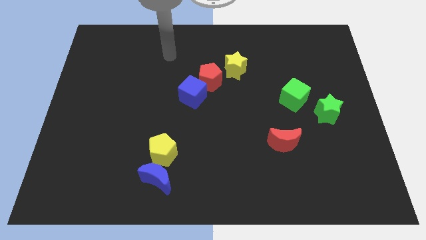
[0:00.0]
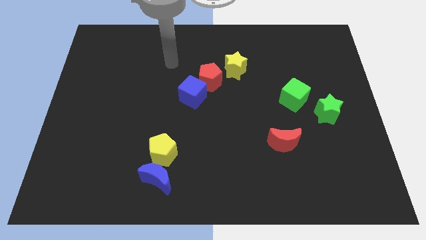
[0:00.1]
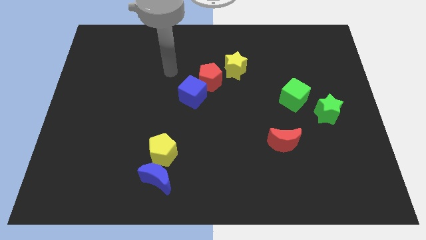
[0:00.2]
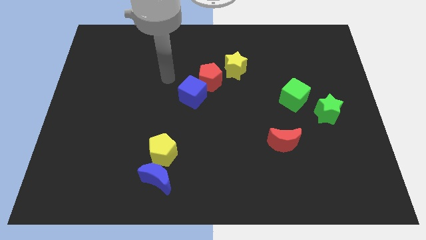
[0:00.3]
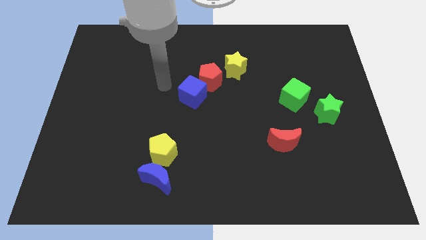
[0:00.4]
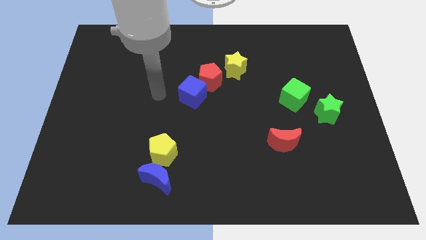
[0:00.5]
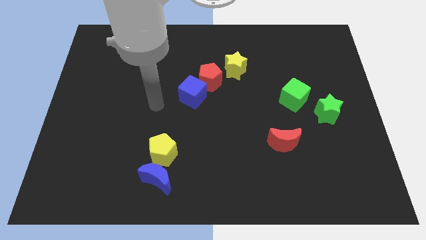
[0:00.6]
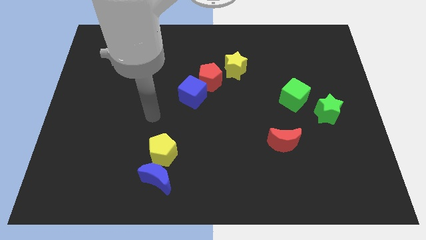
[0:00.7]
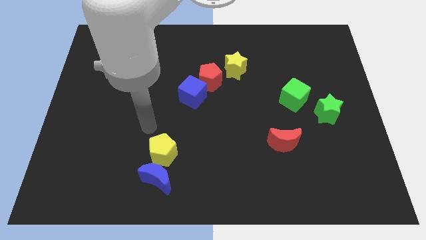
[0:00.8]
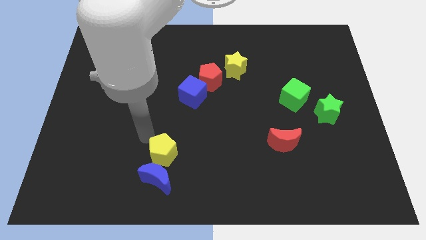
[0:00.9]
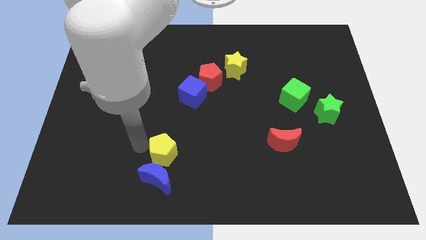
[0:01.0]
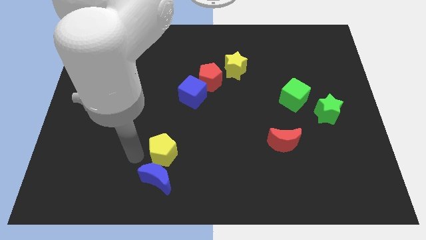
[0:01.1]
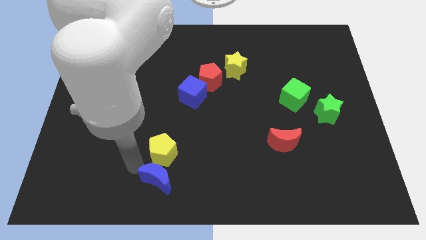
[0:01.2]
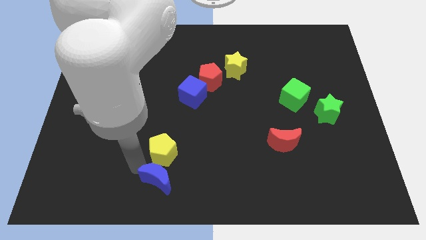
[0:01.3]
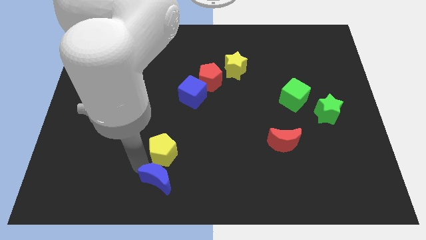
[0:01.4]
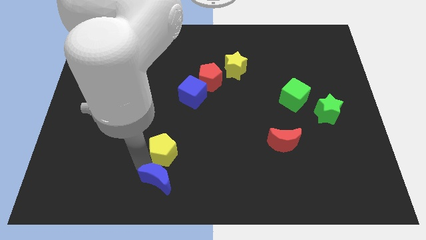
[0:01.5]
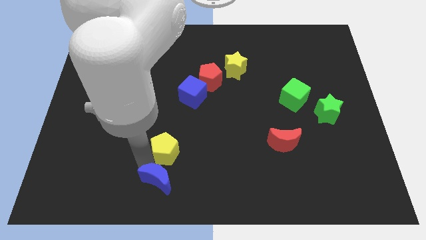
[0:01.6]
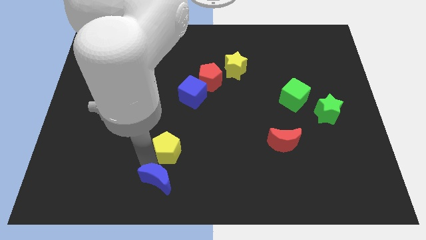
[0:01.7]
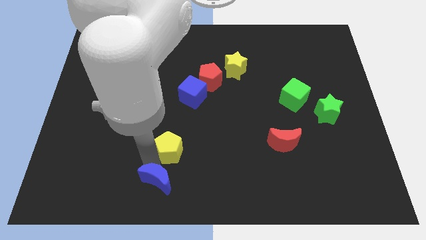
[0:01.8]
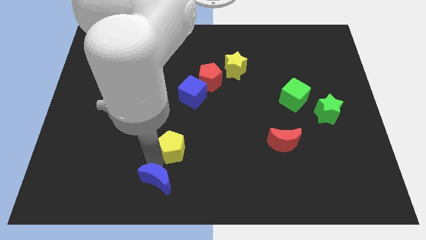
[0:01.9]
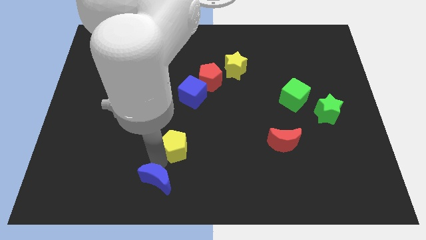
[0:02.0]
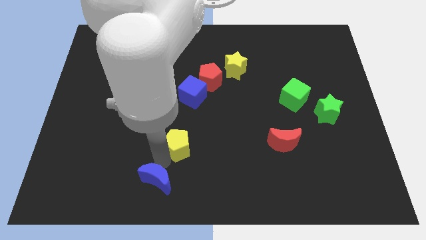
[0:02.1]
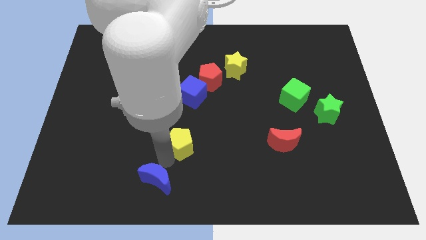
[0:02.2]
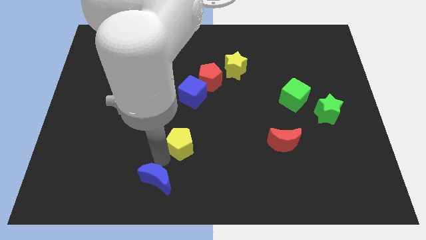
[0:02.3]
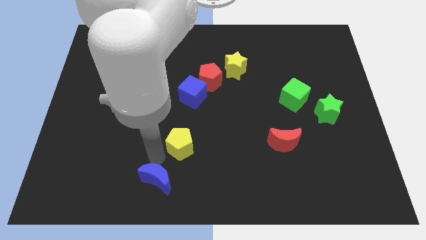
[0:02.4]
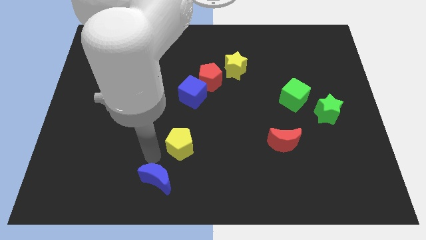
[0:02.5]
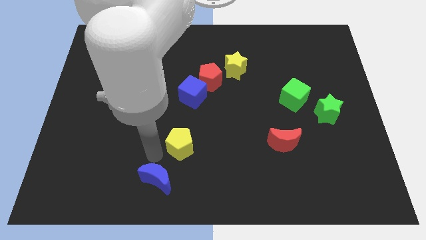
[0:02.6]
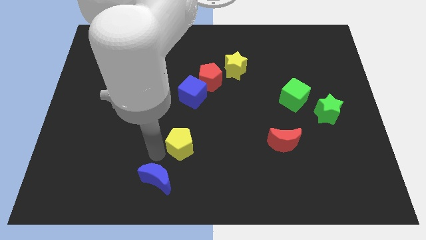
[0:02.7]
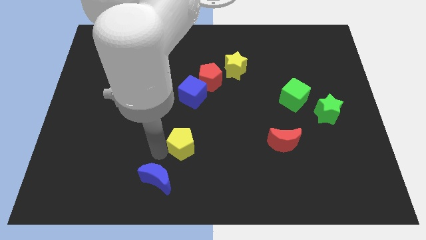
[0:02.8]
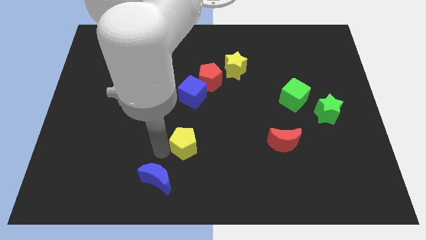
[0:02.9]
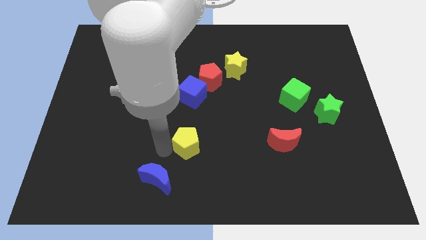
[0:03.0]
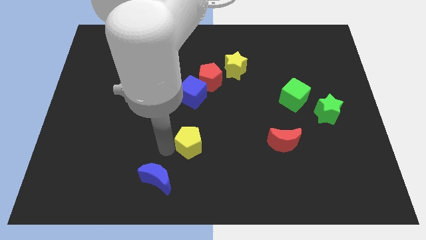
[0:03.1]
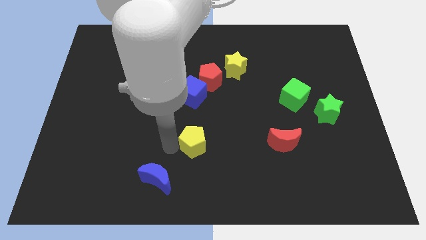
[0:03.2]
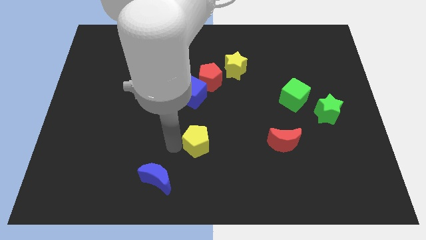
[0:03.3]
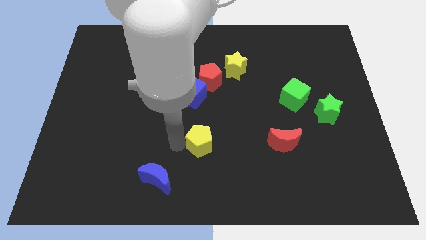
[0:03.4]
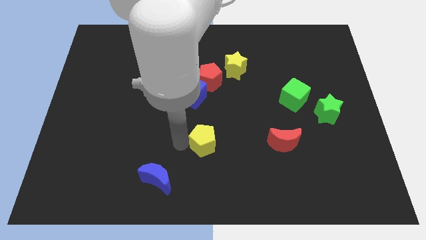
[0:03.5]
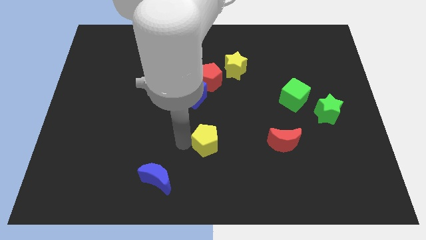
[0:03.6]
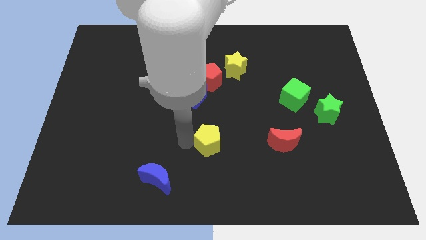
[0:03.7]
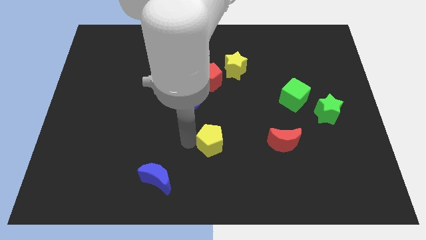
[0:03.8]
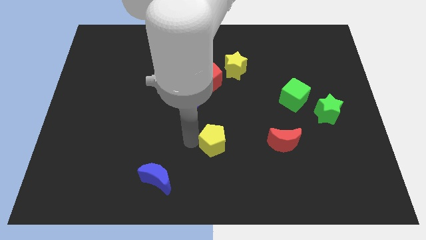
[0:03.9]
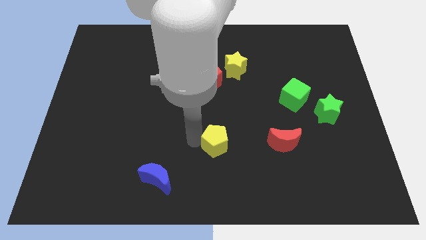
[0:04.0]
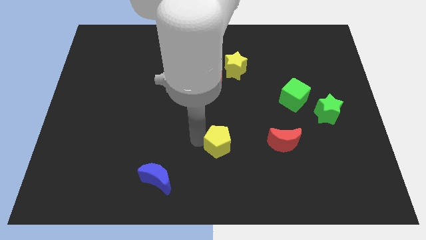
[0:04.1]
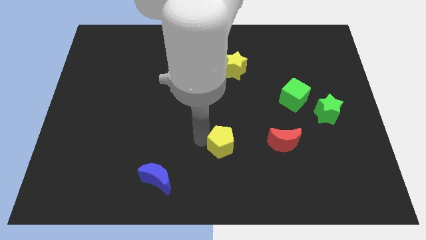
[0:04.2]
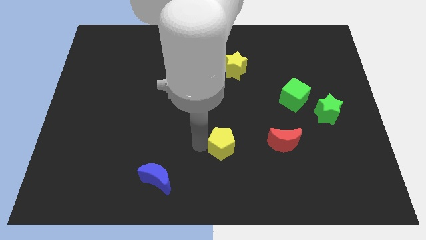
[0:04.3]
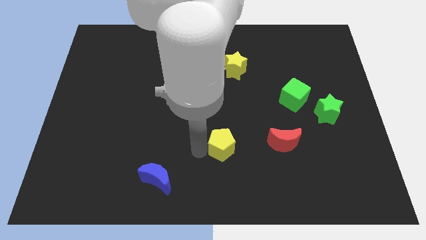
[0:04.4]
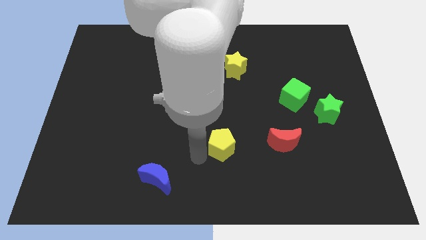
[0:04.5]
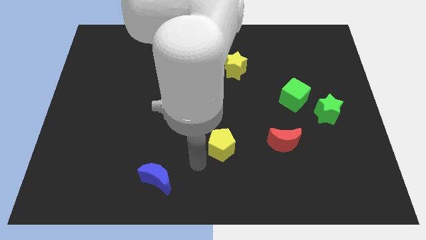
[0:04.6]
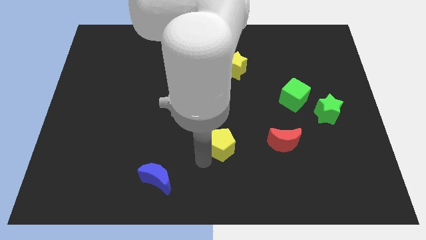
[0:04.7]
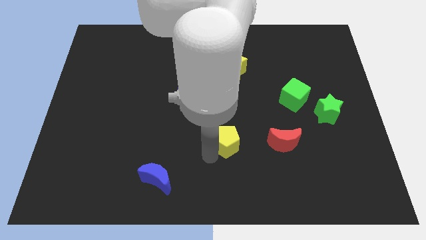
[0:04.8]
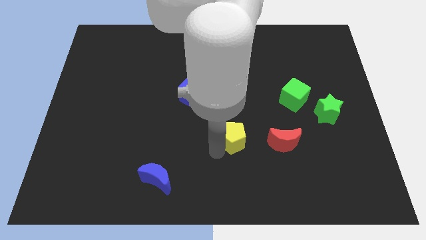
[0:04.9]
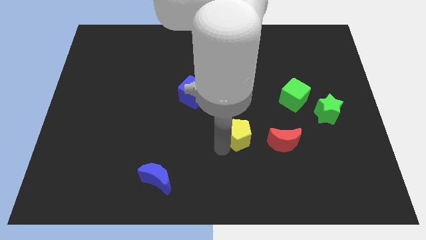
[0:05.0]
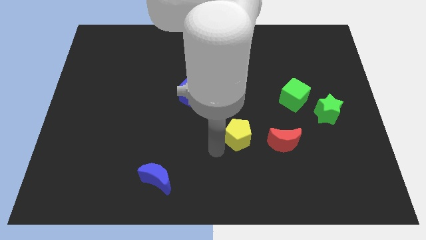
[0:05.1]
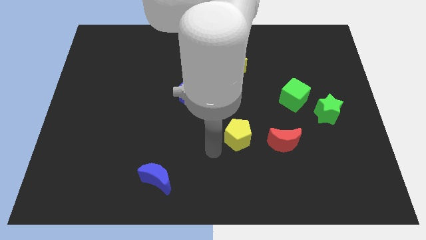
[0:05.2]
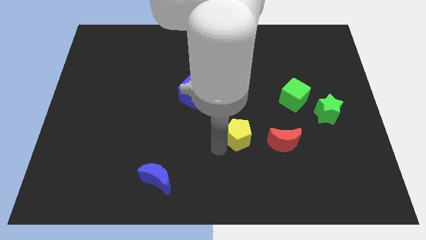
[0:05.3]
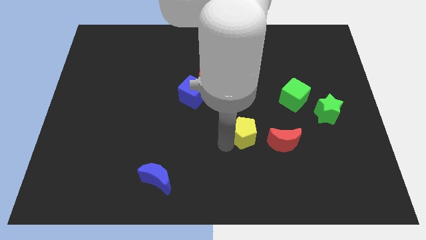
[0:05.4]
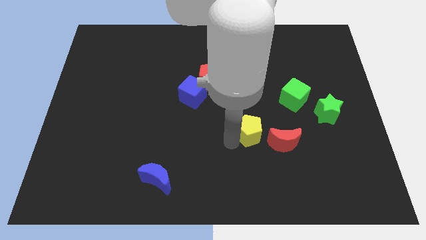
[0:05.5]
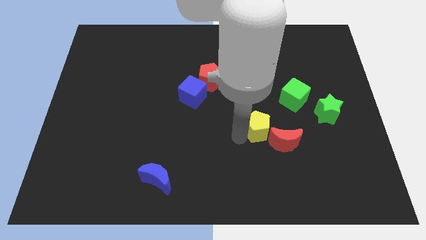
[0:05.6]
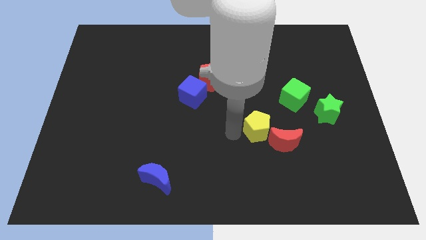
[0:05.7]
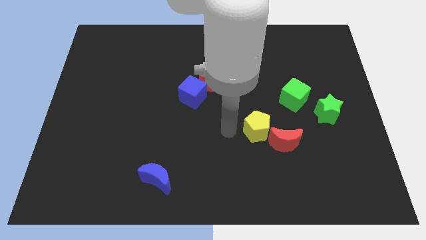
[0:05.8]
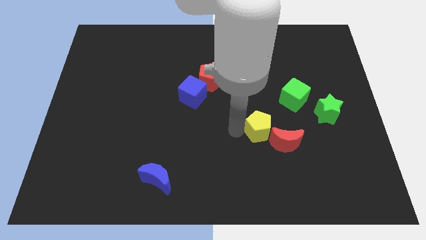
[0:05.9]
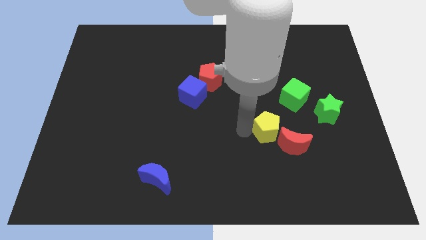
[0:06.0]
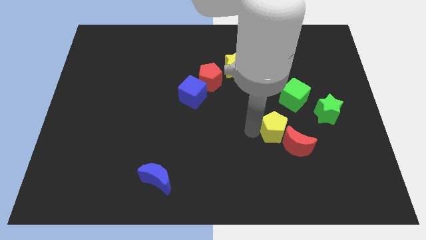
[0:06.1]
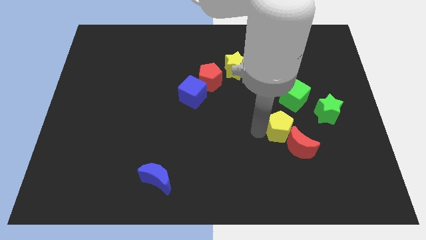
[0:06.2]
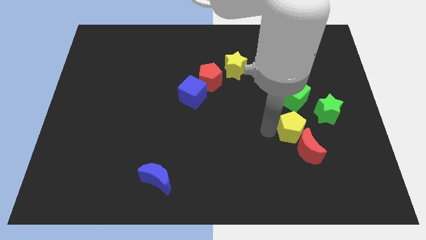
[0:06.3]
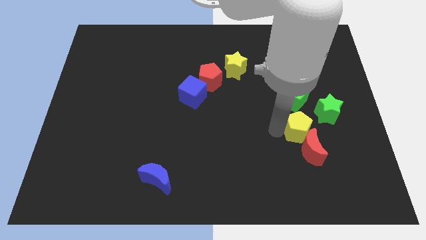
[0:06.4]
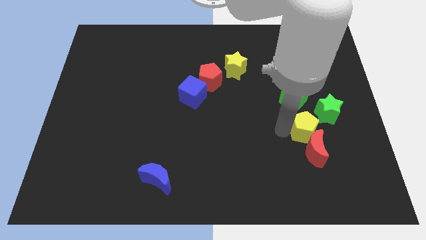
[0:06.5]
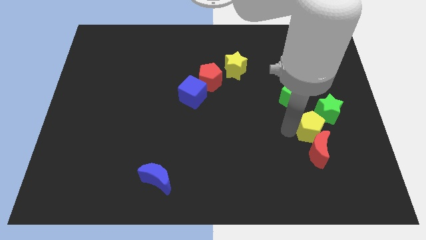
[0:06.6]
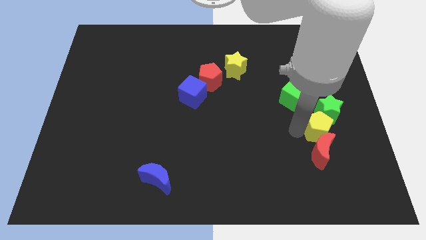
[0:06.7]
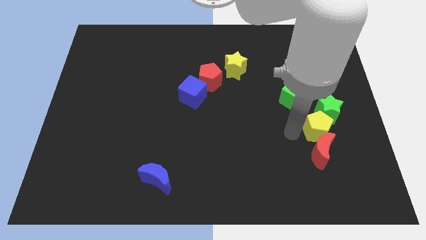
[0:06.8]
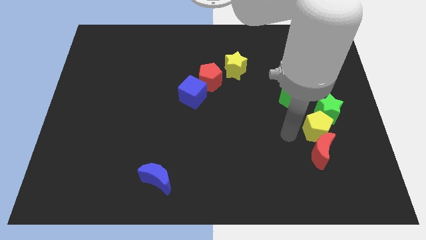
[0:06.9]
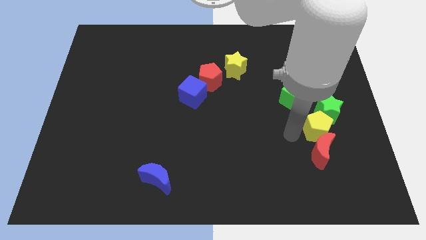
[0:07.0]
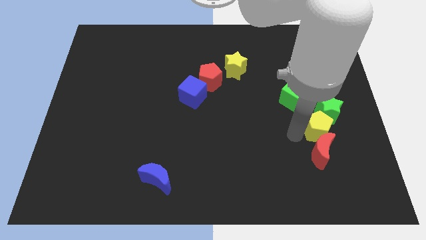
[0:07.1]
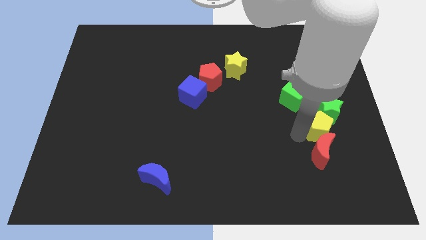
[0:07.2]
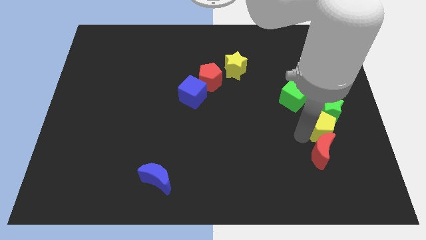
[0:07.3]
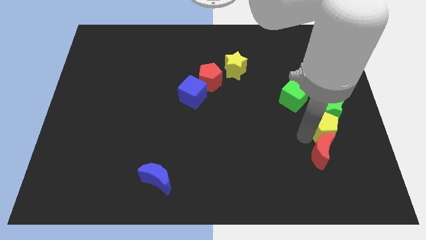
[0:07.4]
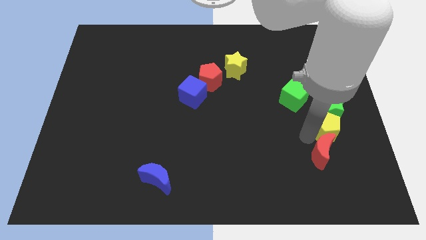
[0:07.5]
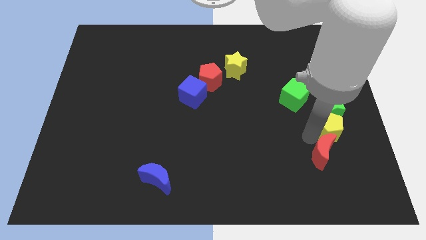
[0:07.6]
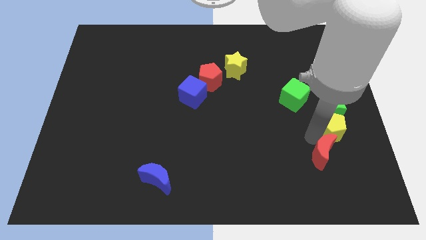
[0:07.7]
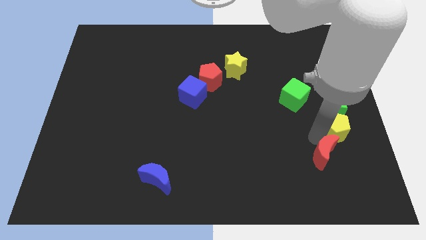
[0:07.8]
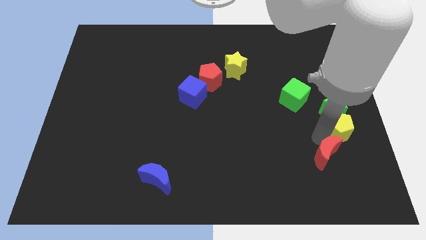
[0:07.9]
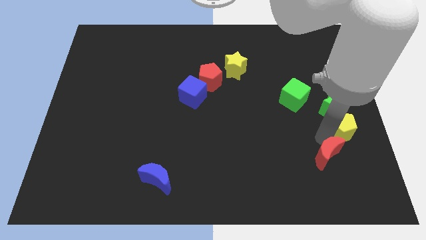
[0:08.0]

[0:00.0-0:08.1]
put the yellow pentagon to the center right
